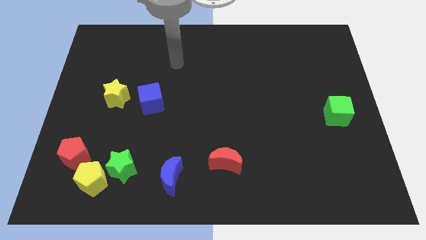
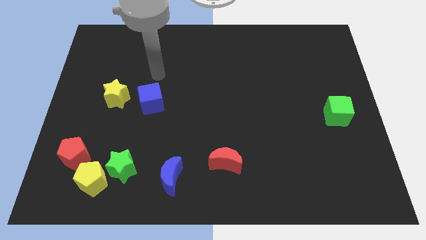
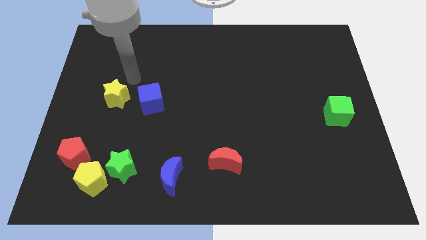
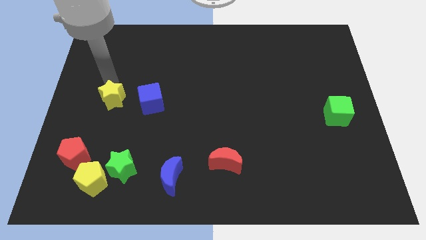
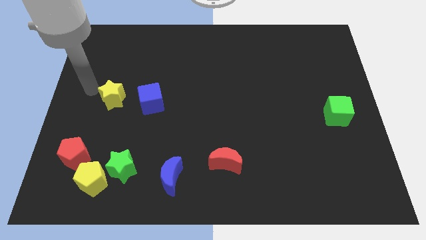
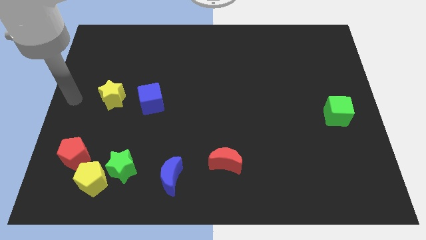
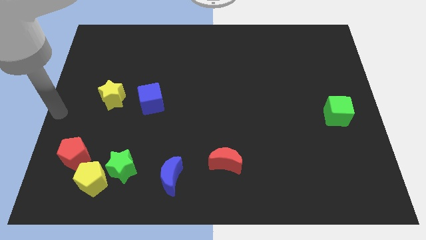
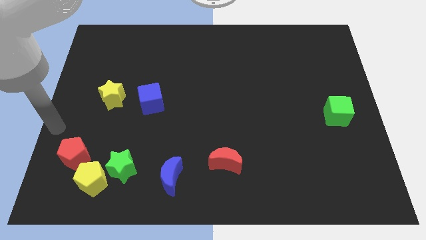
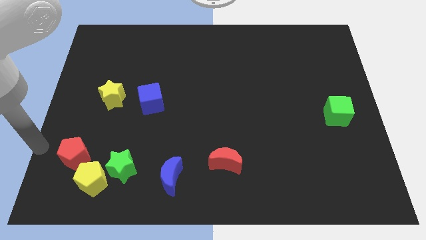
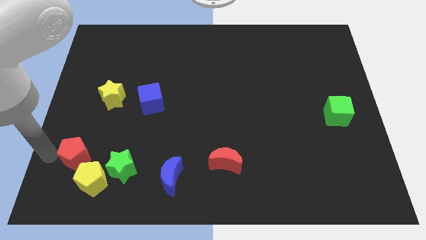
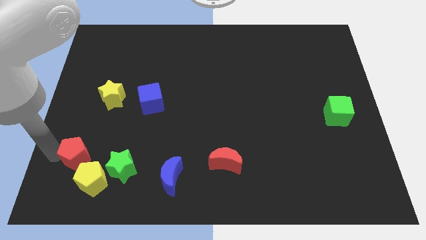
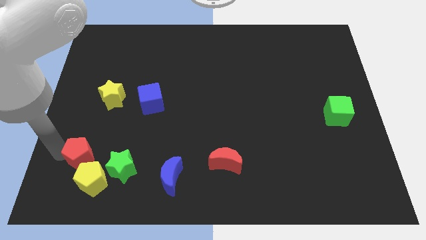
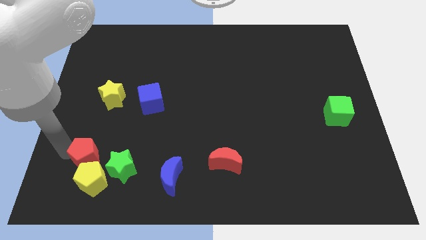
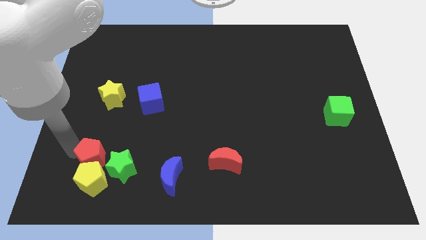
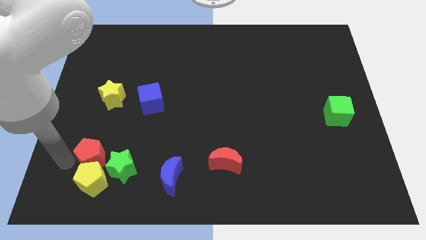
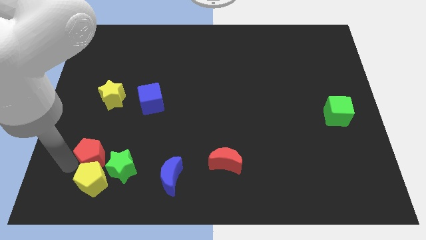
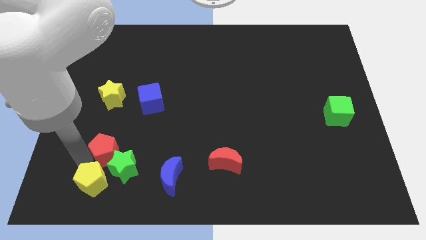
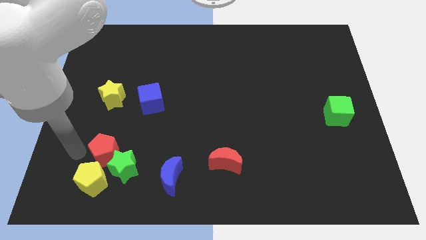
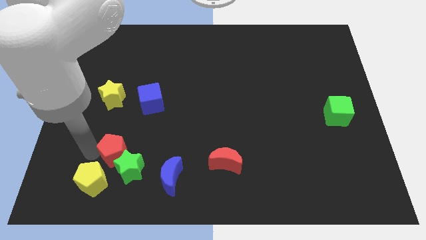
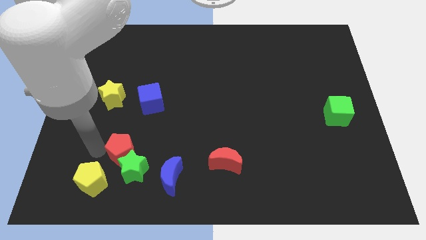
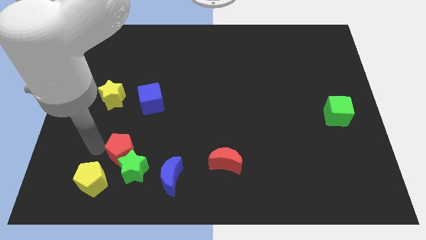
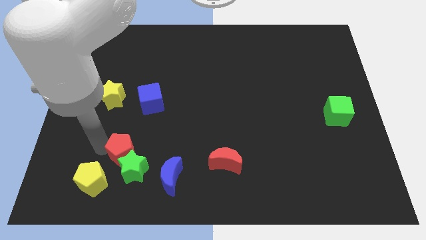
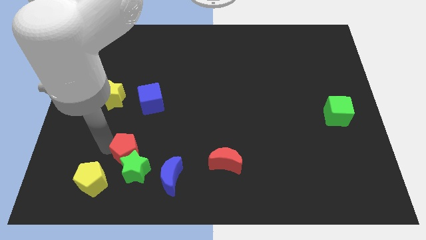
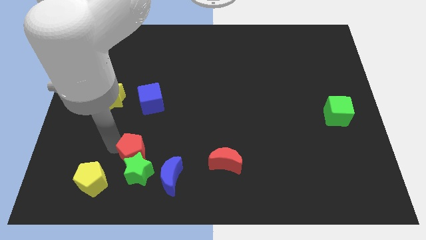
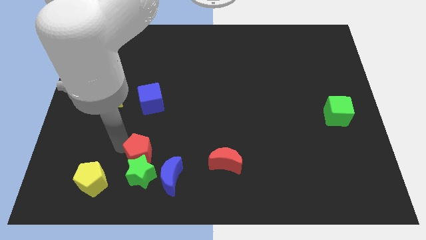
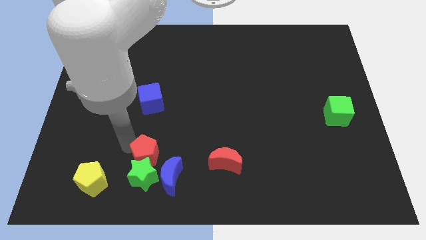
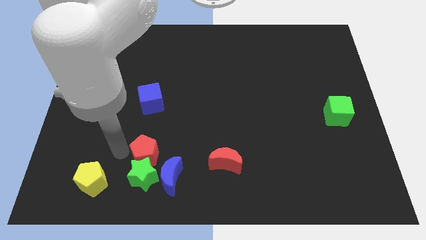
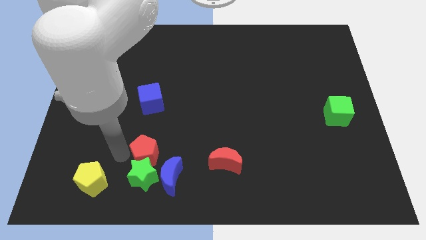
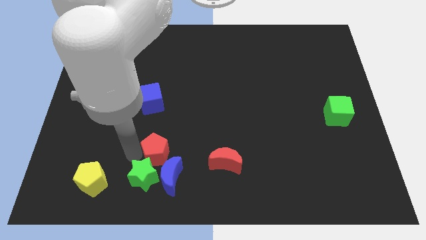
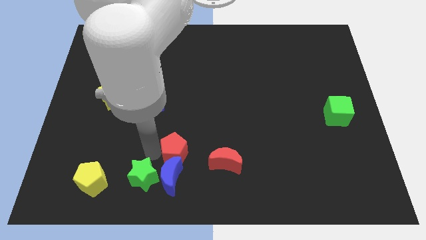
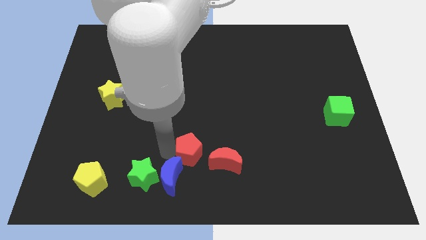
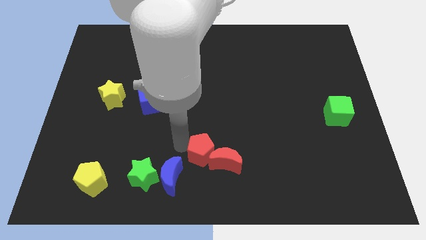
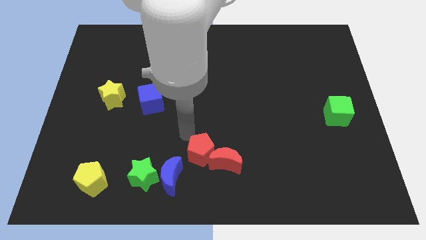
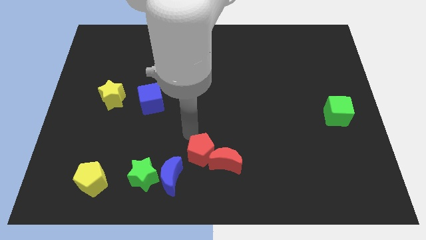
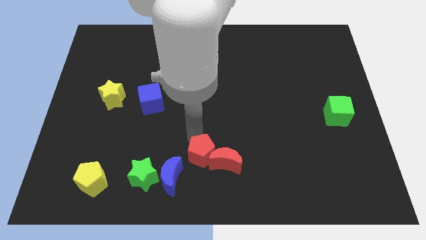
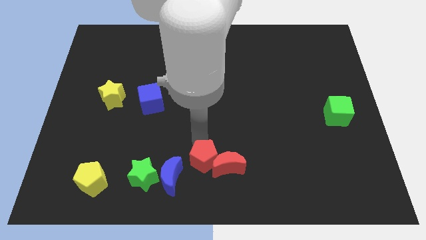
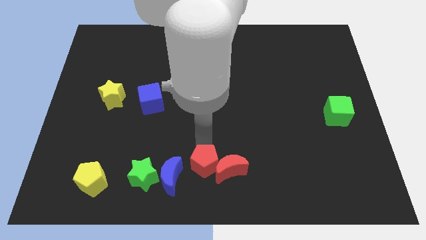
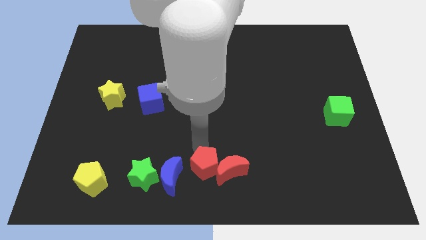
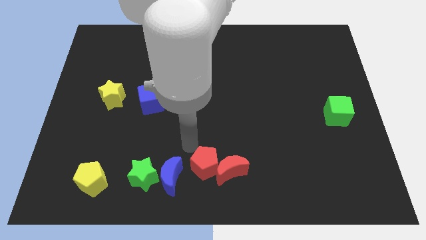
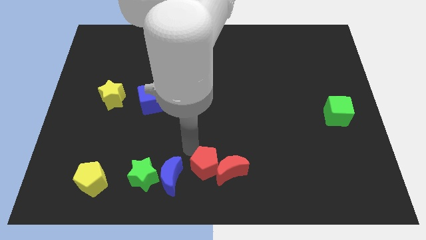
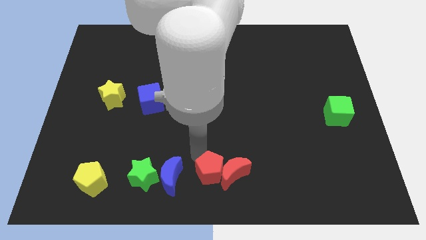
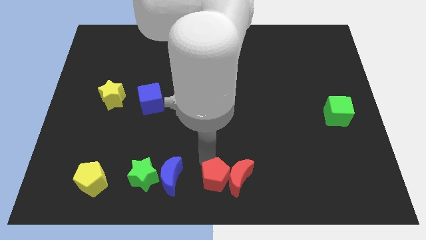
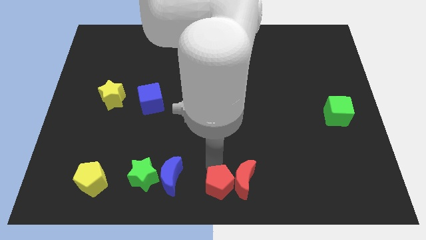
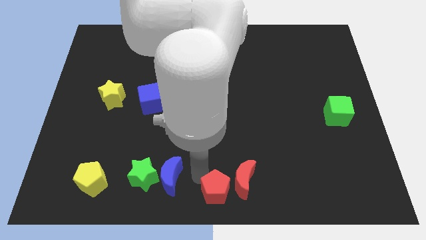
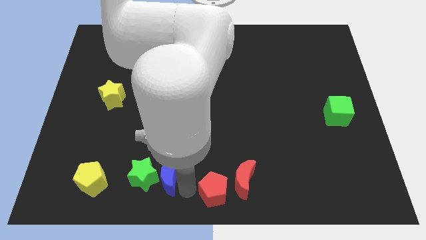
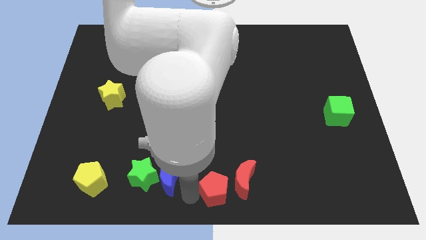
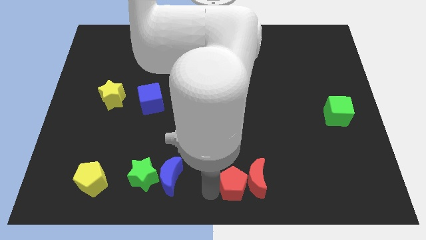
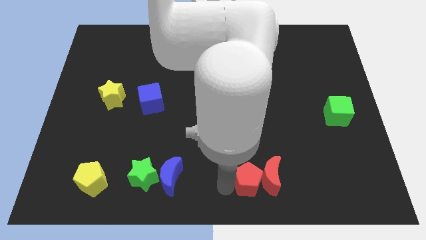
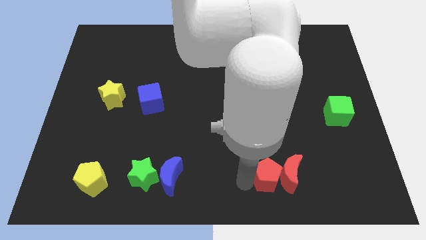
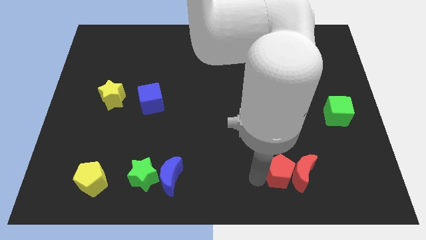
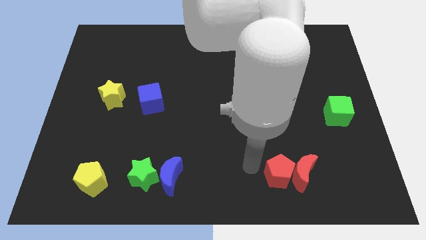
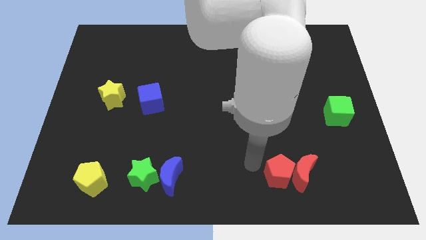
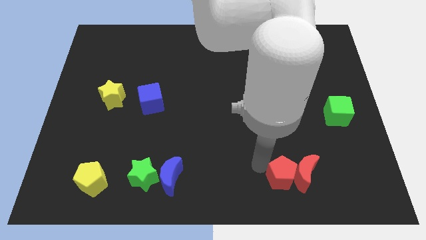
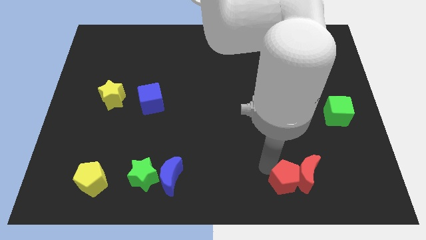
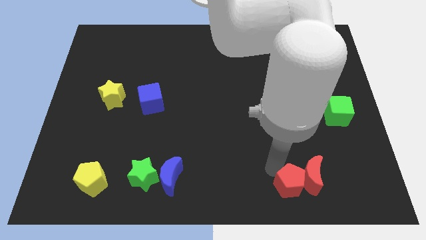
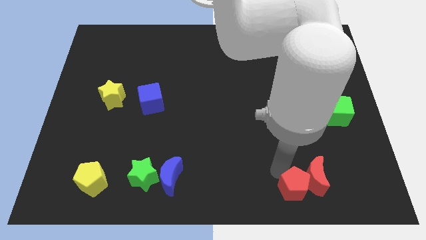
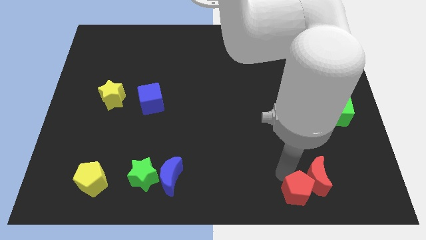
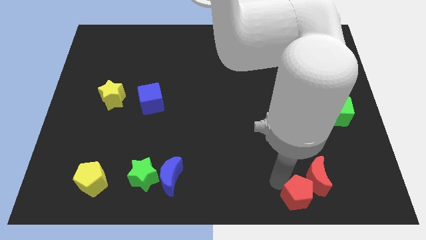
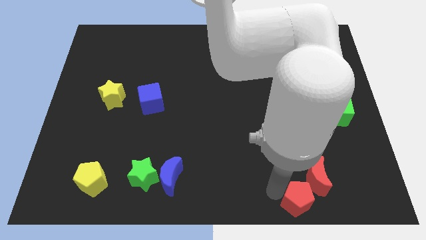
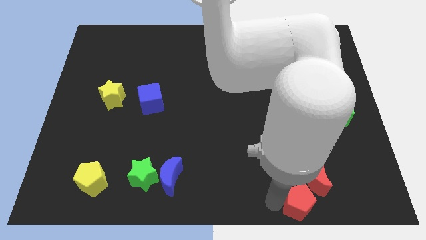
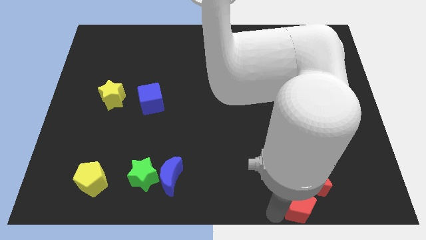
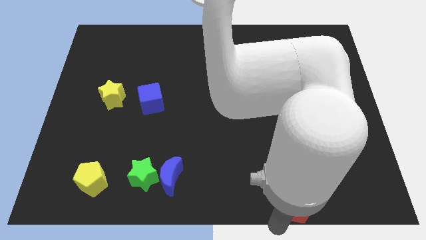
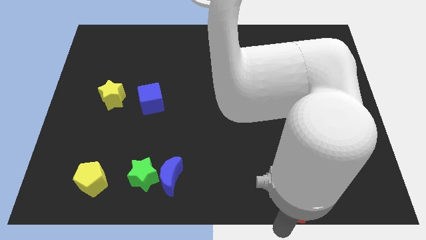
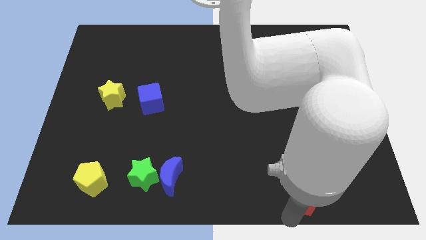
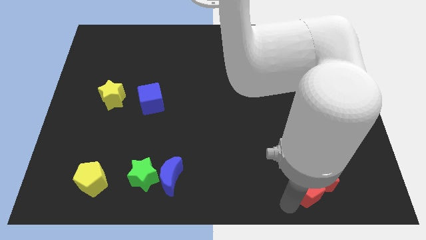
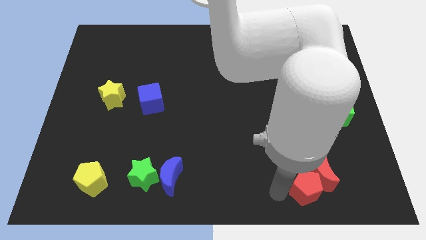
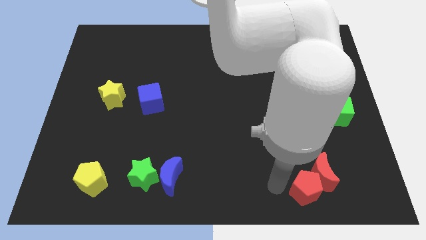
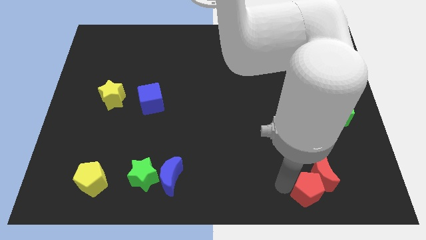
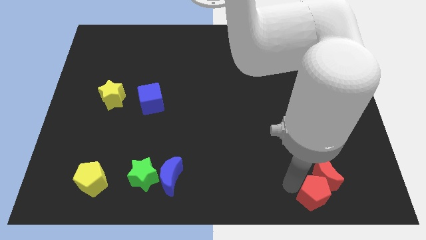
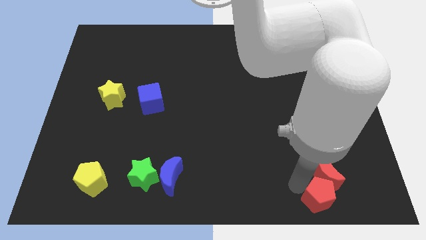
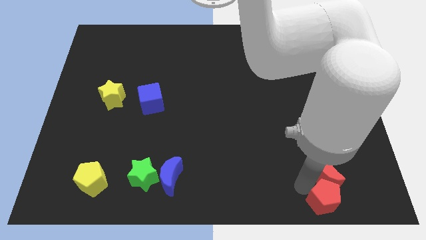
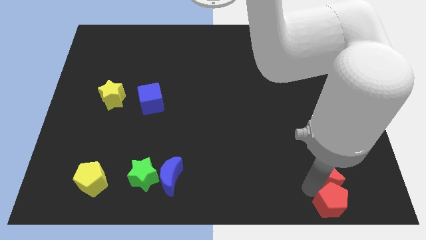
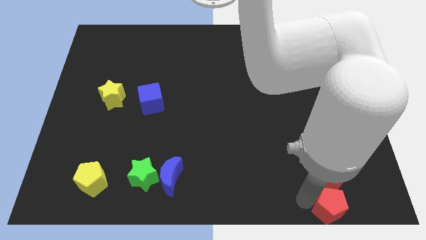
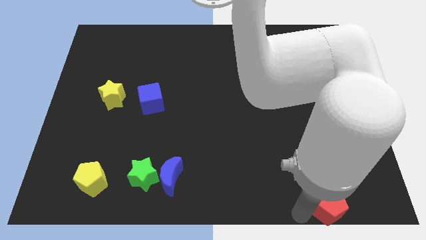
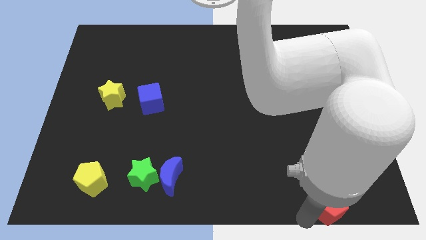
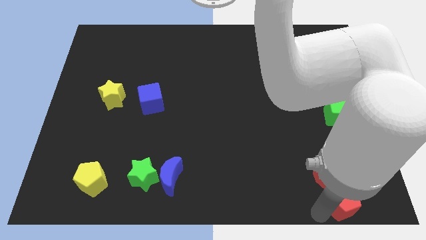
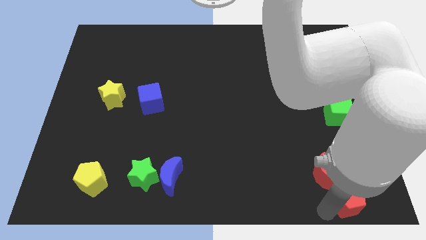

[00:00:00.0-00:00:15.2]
move the red pentagon to the lower right corner
